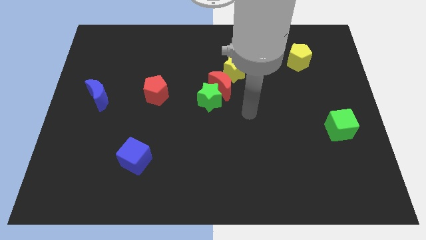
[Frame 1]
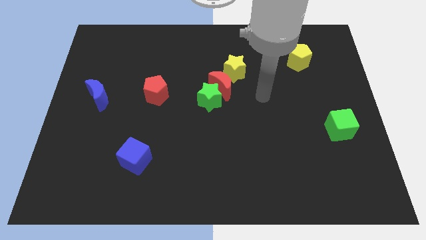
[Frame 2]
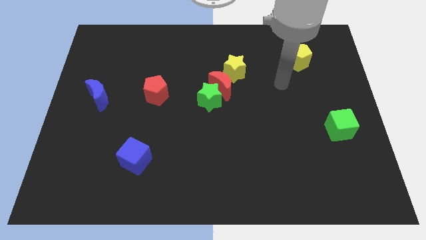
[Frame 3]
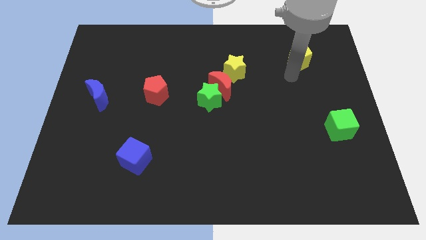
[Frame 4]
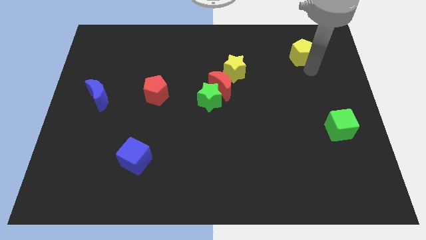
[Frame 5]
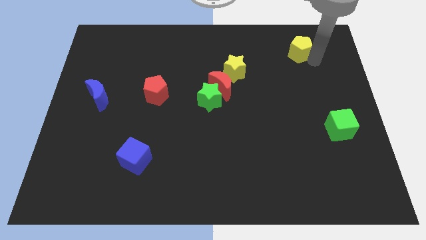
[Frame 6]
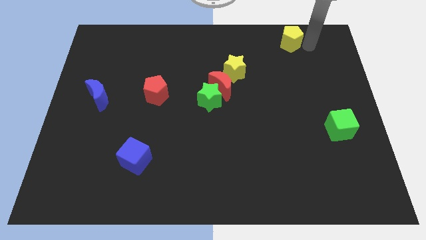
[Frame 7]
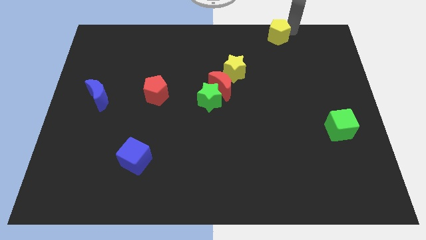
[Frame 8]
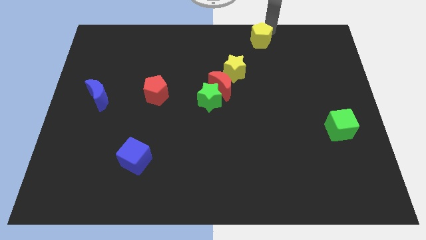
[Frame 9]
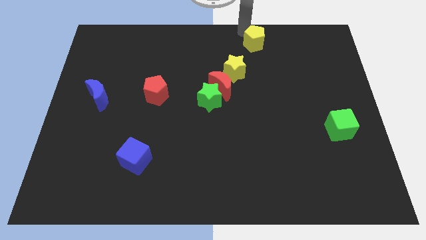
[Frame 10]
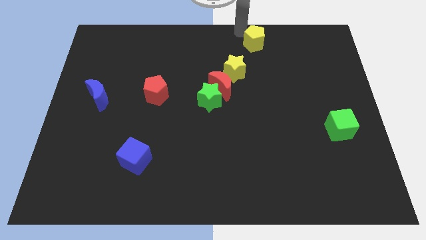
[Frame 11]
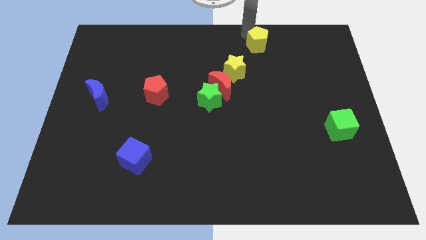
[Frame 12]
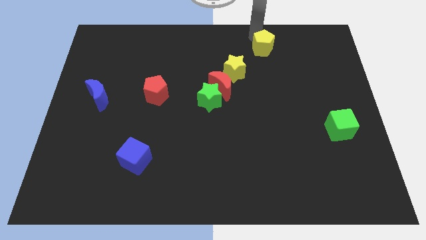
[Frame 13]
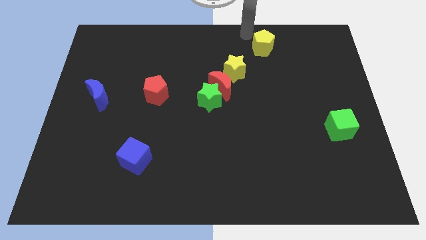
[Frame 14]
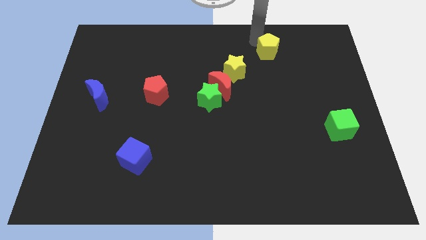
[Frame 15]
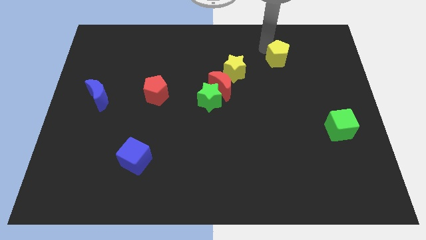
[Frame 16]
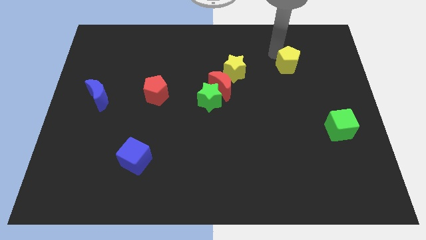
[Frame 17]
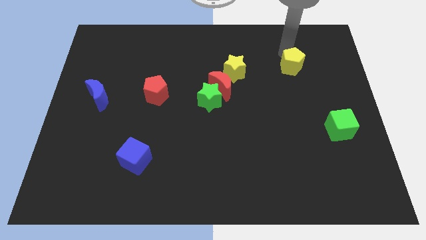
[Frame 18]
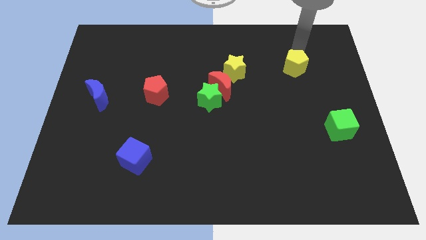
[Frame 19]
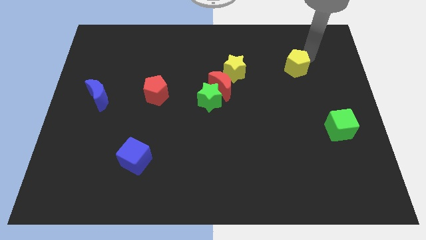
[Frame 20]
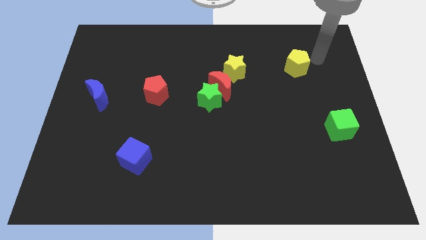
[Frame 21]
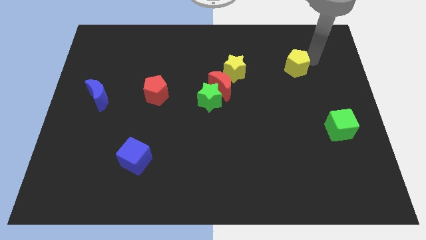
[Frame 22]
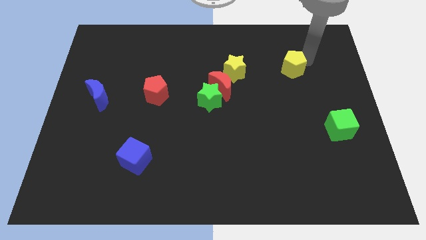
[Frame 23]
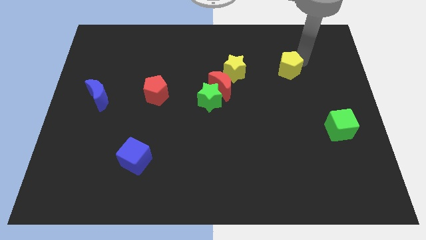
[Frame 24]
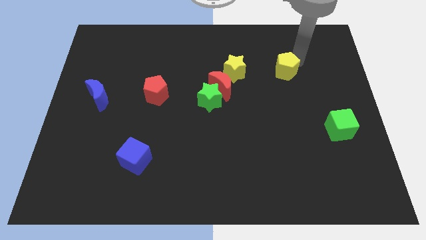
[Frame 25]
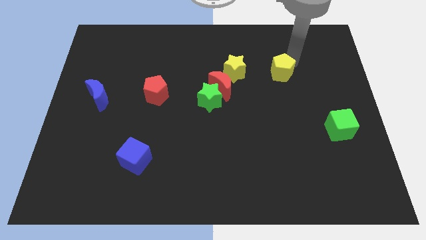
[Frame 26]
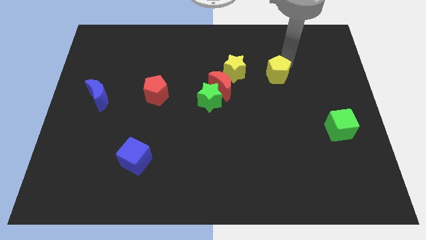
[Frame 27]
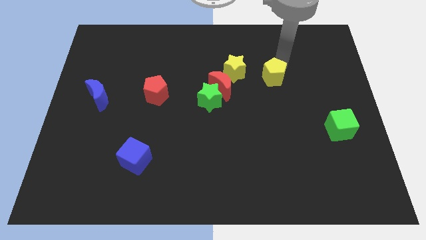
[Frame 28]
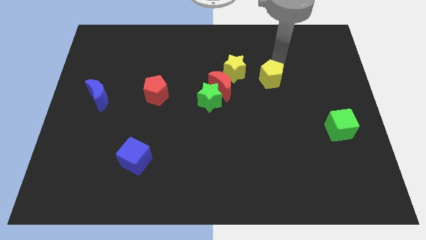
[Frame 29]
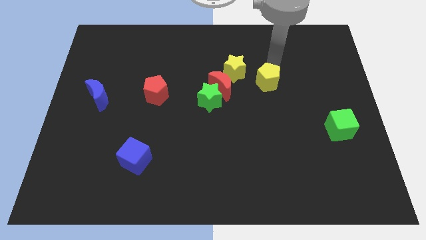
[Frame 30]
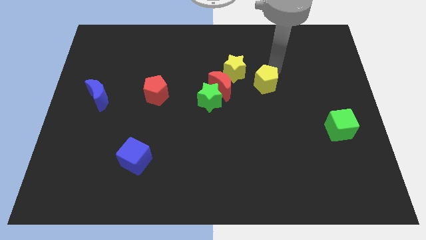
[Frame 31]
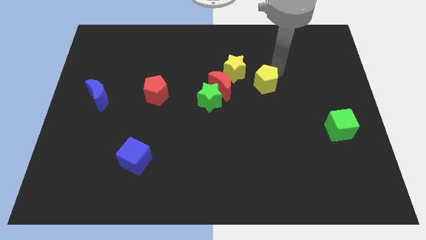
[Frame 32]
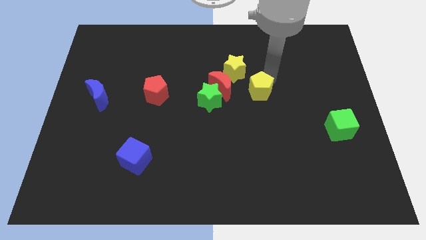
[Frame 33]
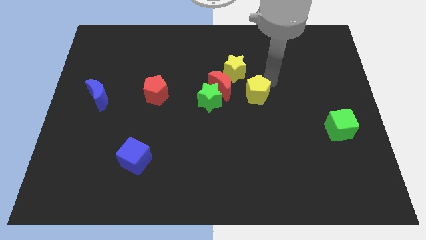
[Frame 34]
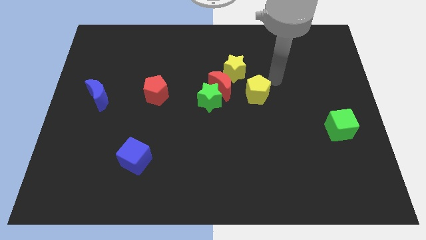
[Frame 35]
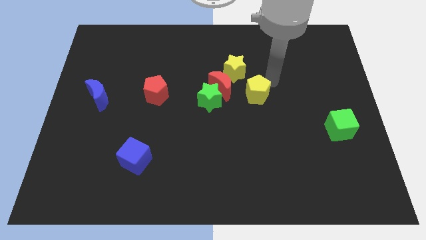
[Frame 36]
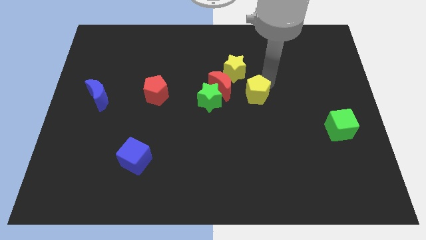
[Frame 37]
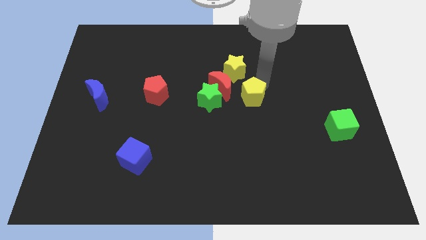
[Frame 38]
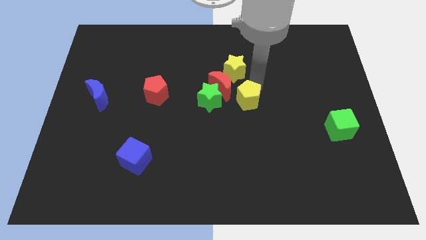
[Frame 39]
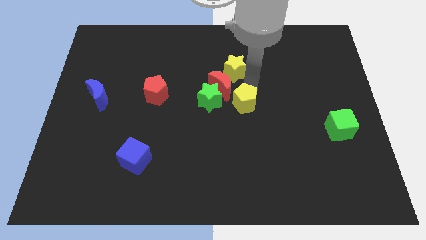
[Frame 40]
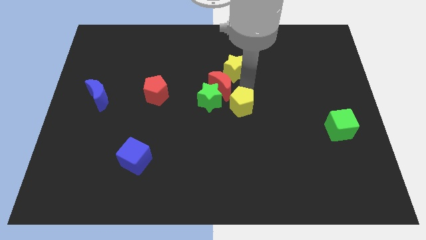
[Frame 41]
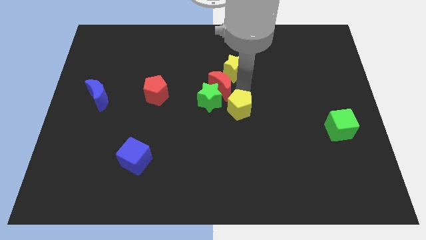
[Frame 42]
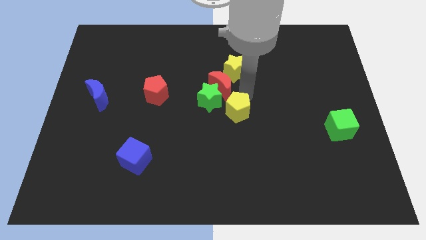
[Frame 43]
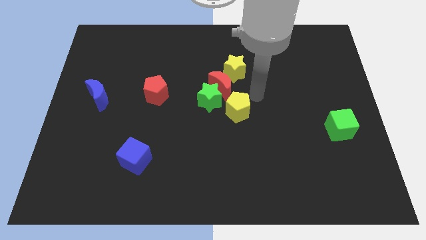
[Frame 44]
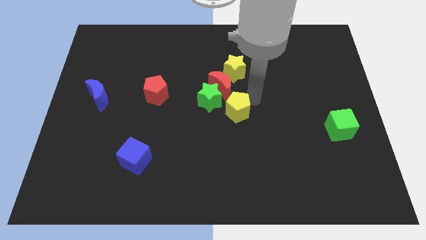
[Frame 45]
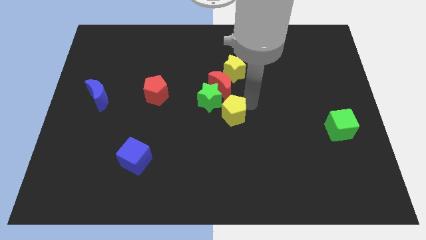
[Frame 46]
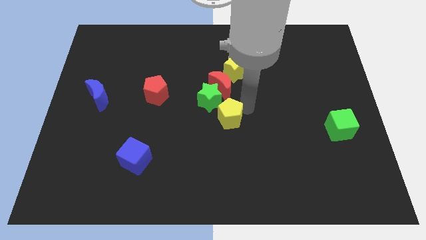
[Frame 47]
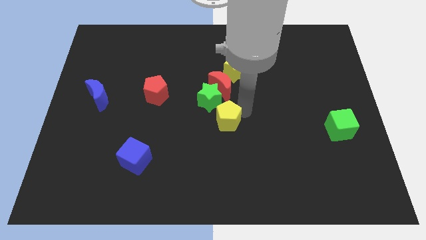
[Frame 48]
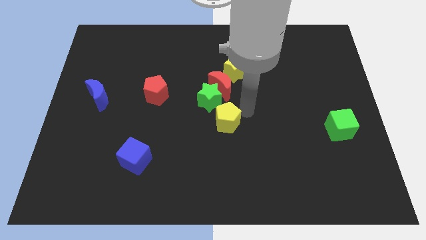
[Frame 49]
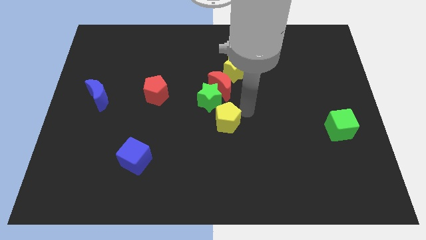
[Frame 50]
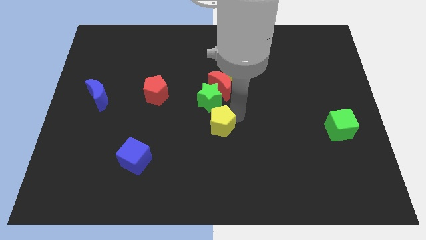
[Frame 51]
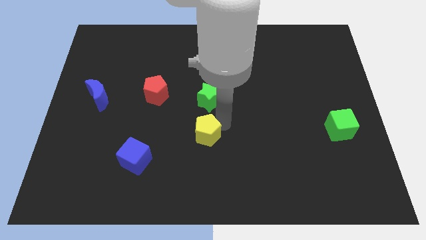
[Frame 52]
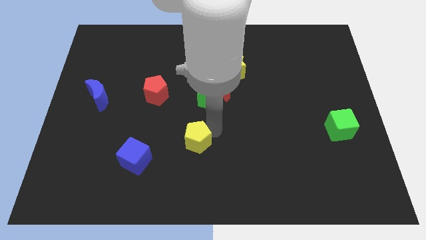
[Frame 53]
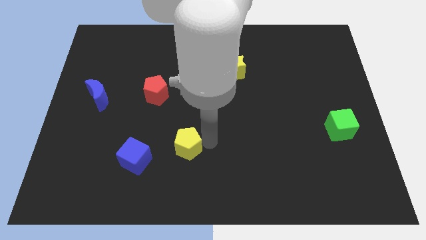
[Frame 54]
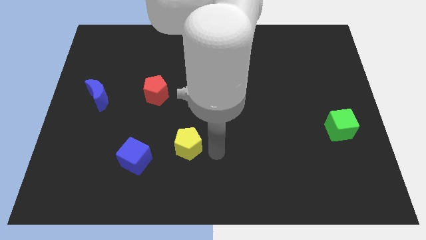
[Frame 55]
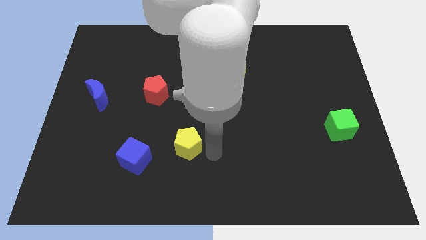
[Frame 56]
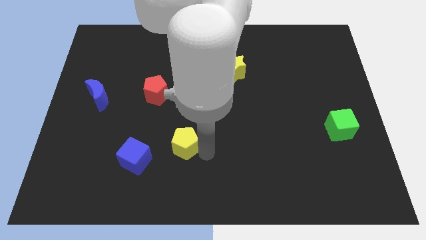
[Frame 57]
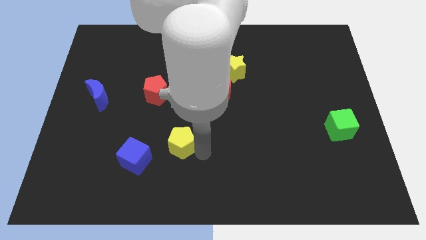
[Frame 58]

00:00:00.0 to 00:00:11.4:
put the yellow pentagon to the top right of the blue cube

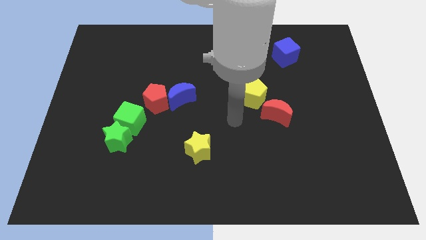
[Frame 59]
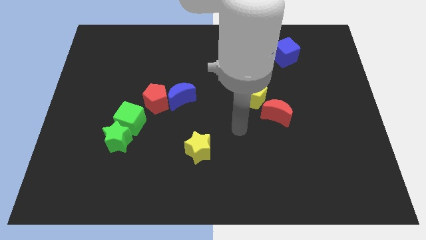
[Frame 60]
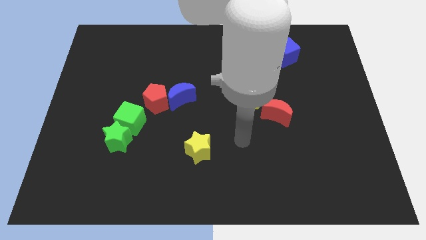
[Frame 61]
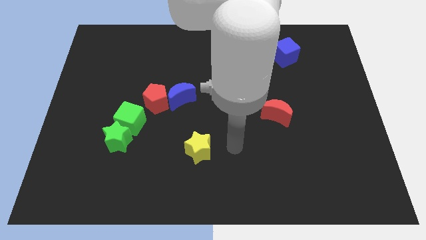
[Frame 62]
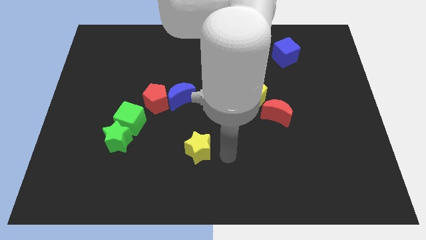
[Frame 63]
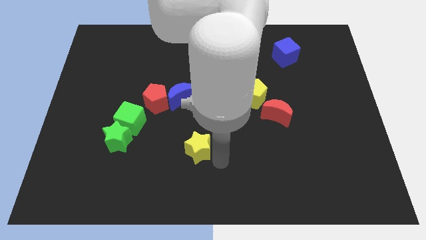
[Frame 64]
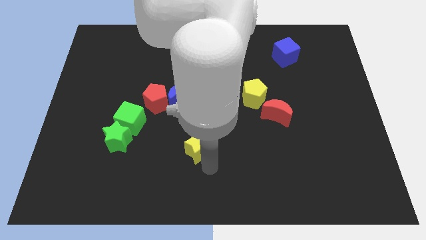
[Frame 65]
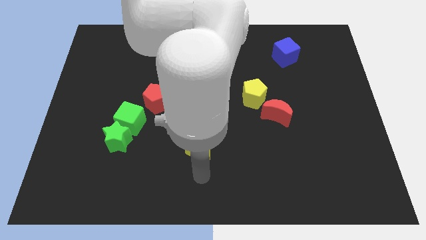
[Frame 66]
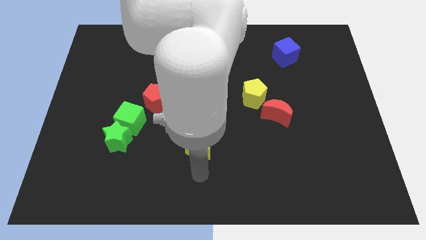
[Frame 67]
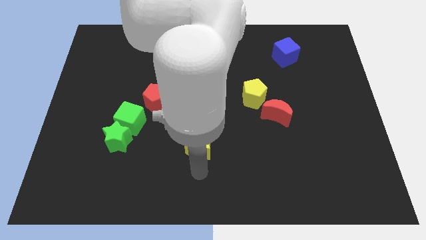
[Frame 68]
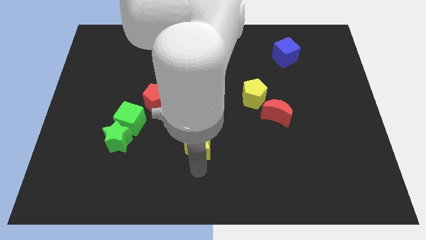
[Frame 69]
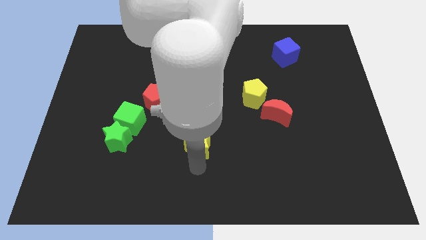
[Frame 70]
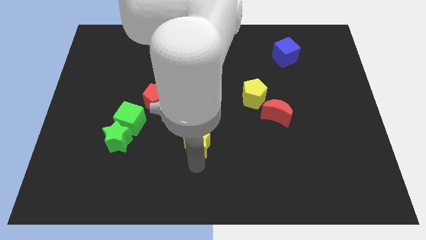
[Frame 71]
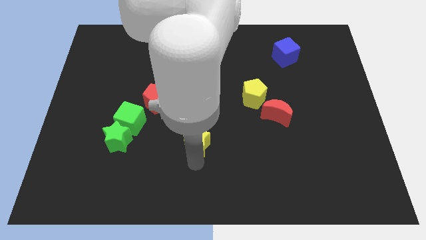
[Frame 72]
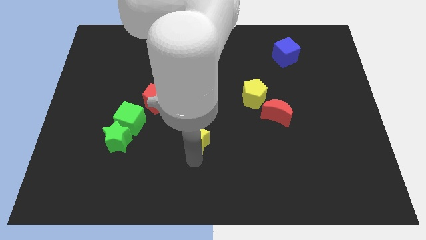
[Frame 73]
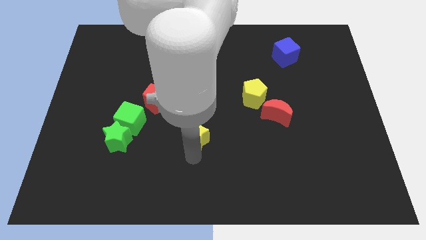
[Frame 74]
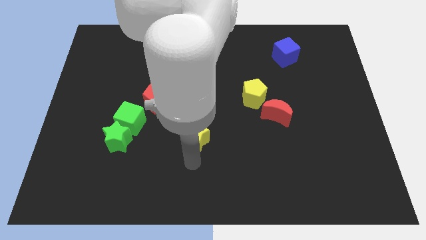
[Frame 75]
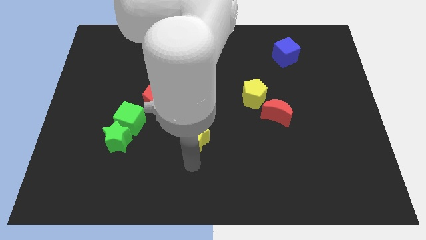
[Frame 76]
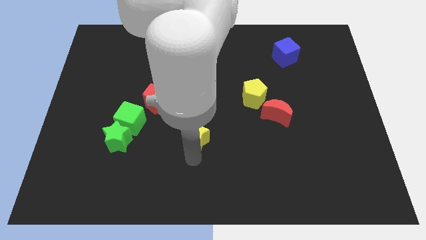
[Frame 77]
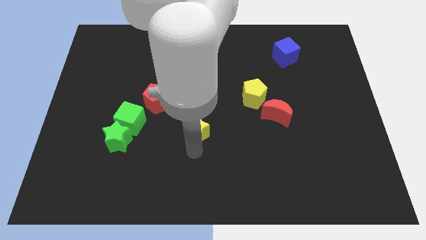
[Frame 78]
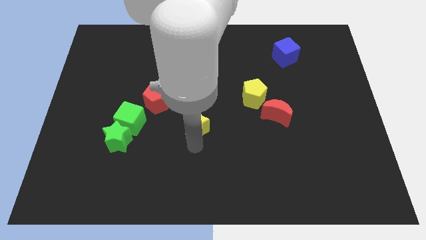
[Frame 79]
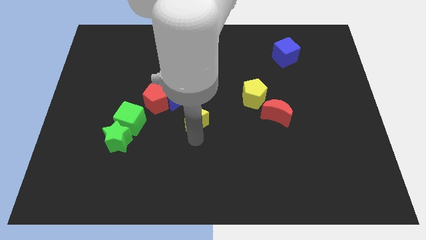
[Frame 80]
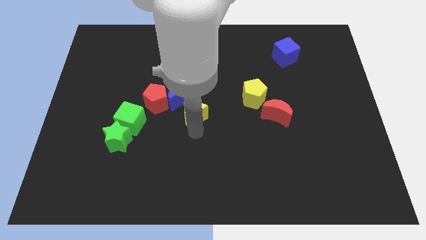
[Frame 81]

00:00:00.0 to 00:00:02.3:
move the yellow star right of the red pentagon
